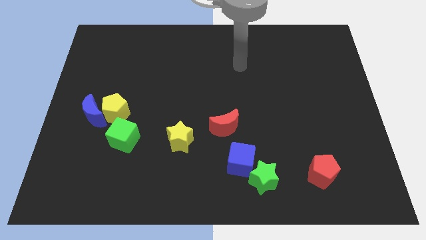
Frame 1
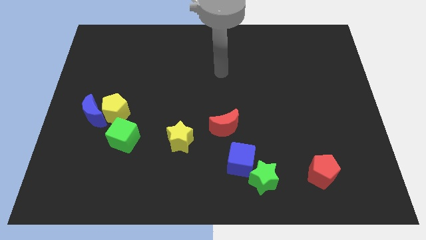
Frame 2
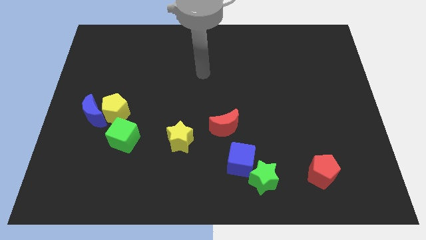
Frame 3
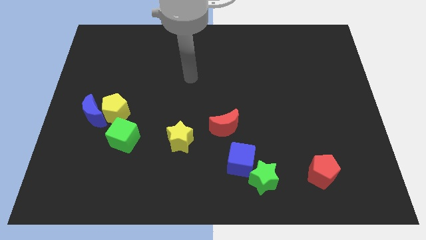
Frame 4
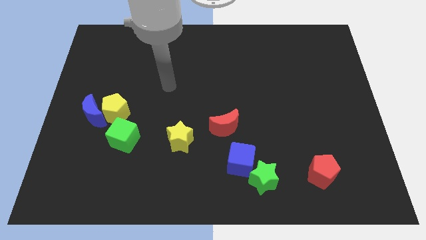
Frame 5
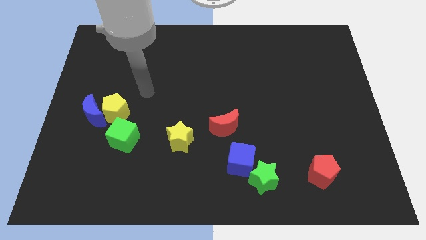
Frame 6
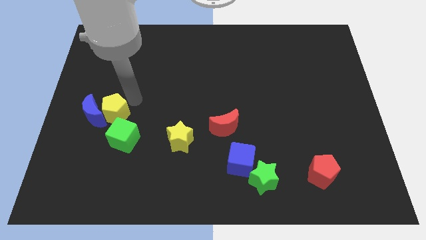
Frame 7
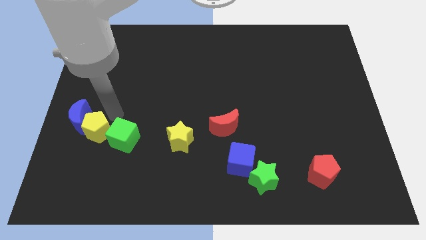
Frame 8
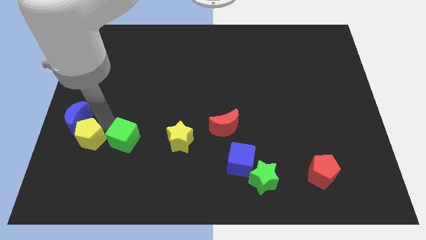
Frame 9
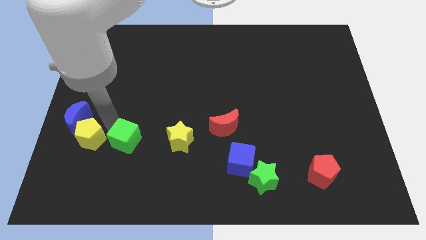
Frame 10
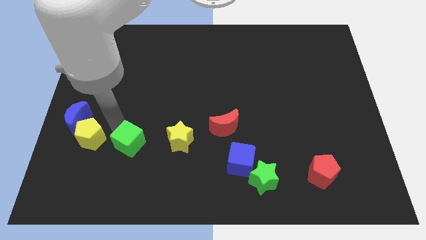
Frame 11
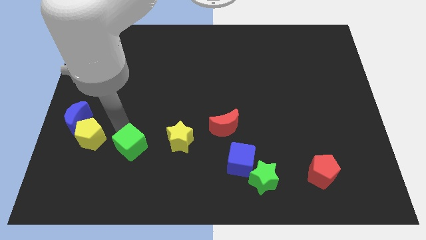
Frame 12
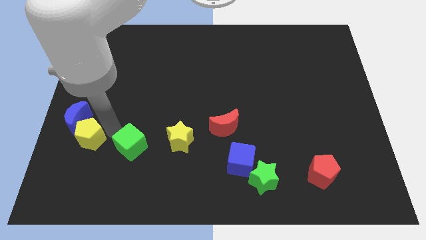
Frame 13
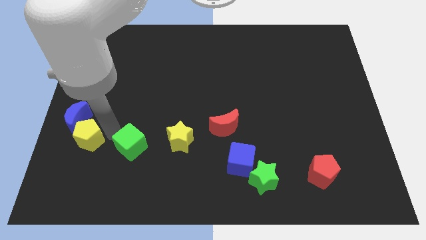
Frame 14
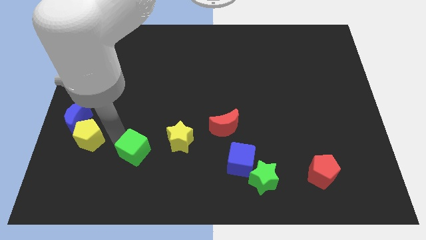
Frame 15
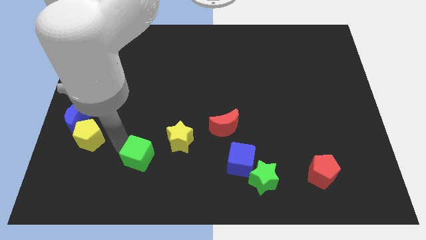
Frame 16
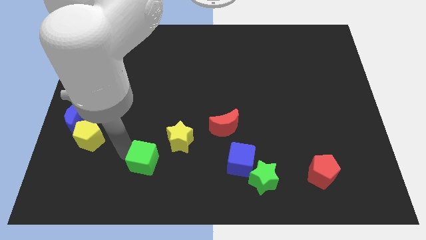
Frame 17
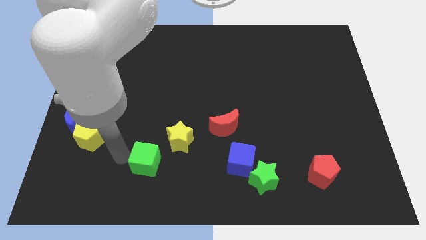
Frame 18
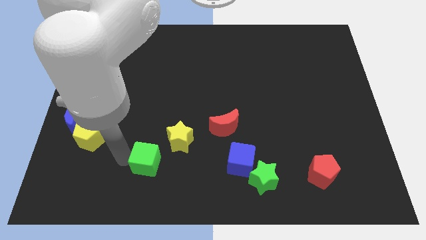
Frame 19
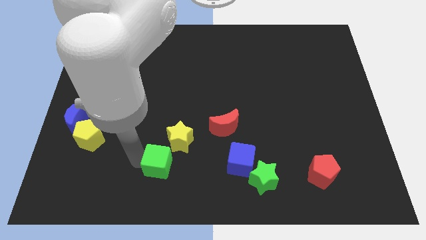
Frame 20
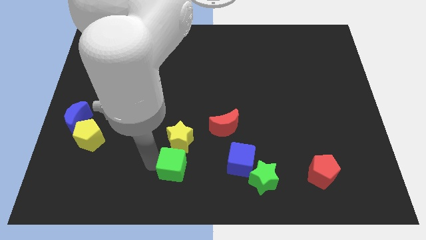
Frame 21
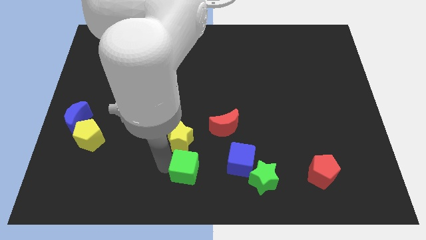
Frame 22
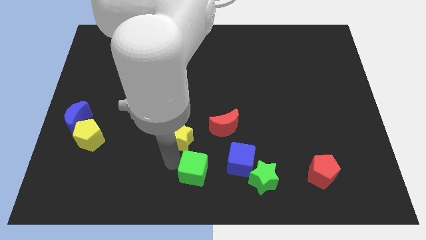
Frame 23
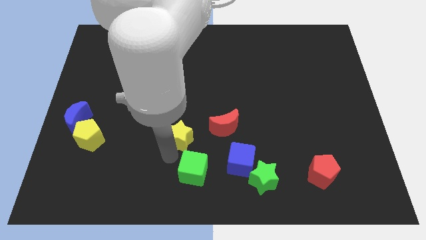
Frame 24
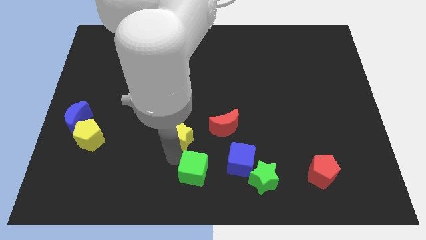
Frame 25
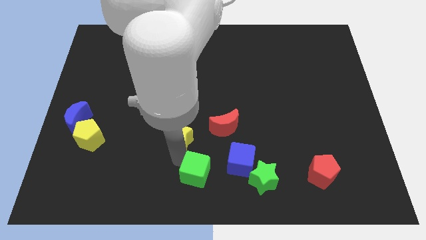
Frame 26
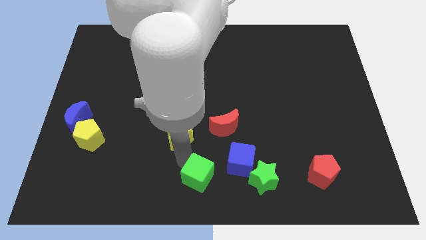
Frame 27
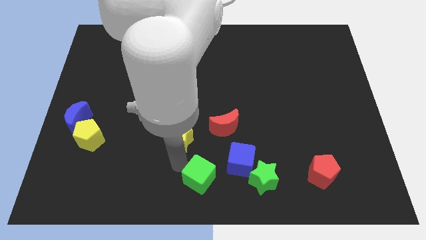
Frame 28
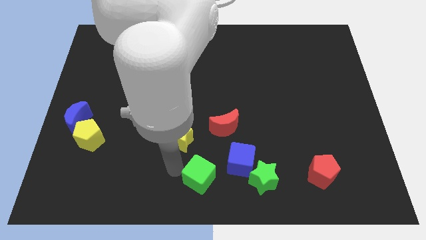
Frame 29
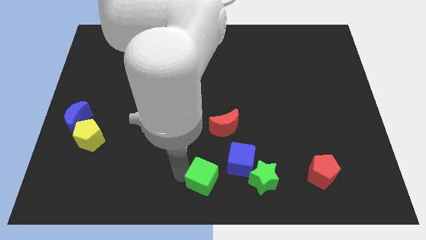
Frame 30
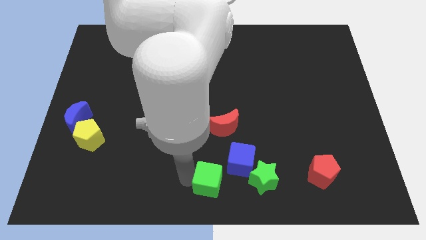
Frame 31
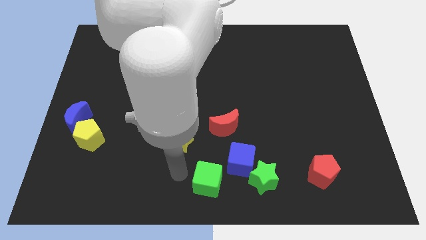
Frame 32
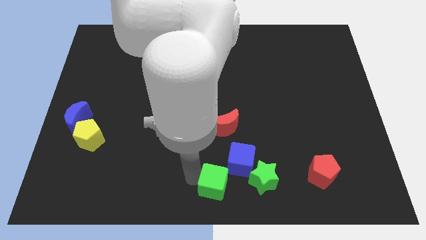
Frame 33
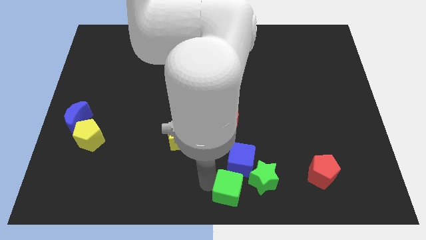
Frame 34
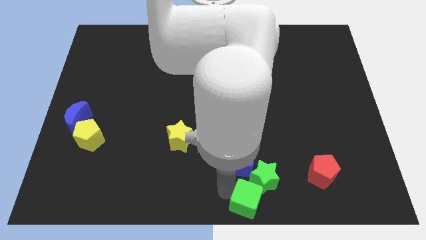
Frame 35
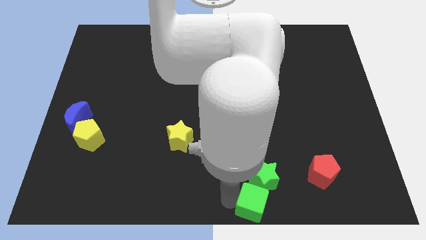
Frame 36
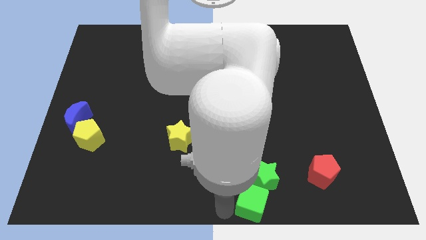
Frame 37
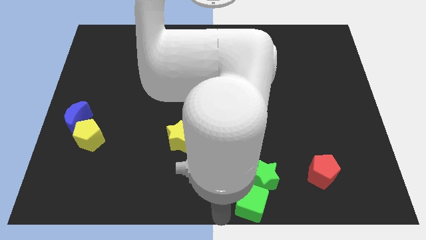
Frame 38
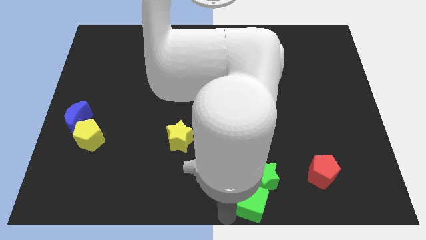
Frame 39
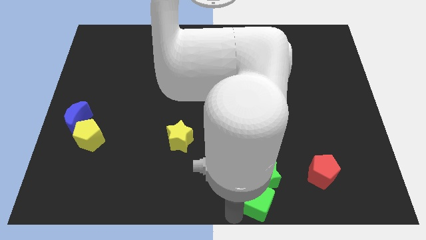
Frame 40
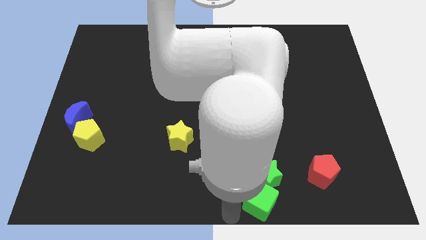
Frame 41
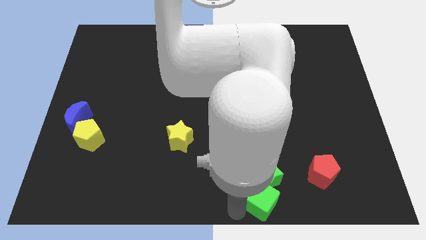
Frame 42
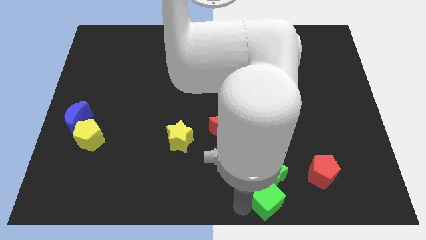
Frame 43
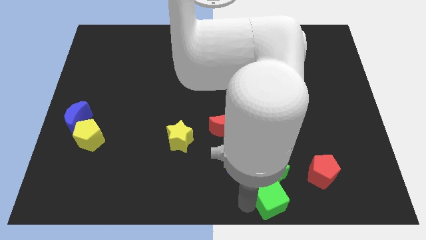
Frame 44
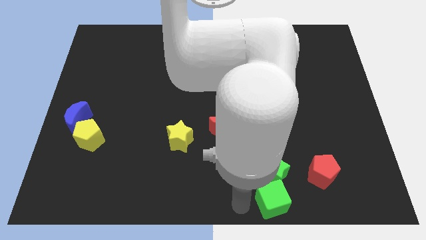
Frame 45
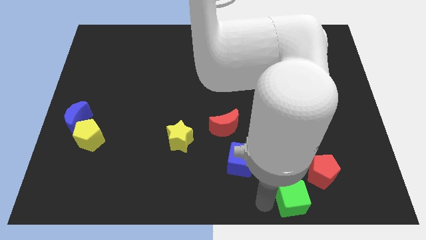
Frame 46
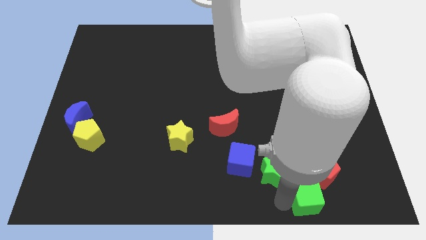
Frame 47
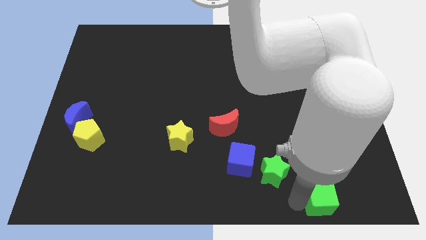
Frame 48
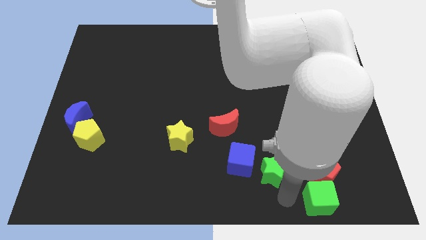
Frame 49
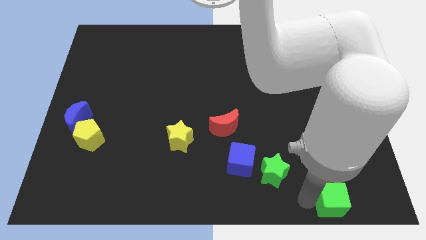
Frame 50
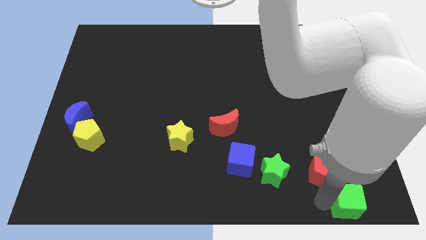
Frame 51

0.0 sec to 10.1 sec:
push the green cube to the bottom right

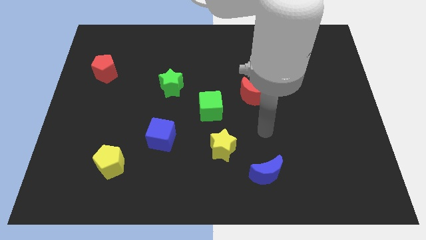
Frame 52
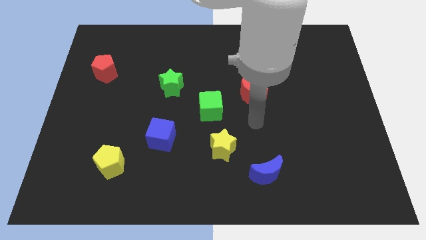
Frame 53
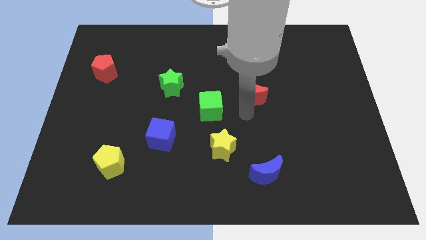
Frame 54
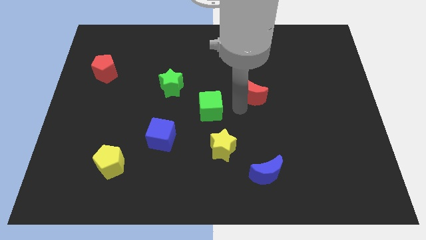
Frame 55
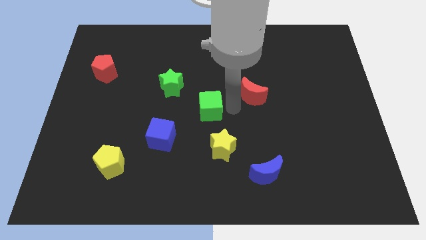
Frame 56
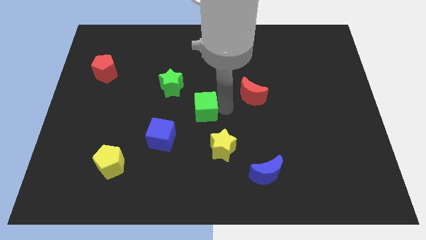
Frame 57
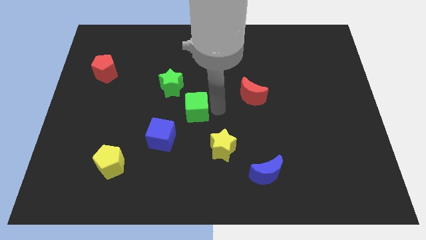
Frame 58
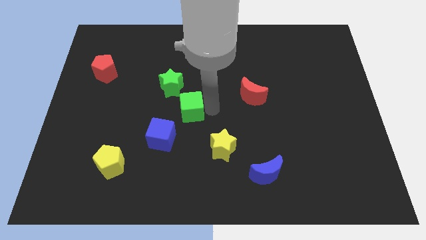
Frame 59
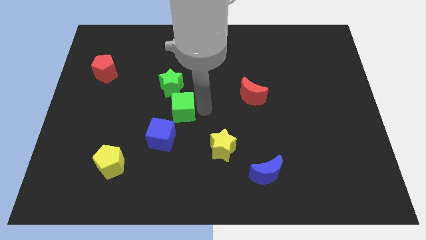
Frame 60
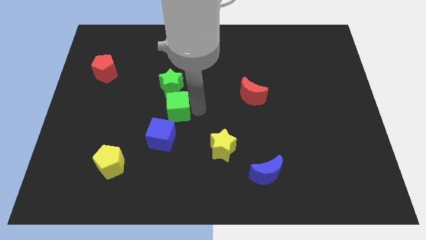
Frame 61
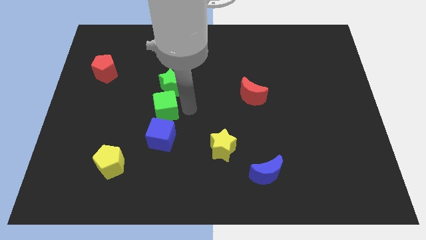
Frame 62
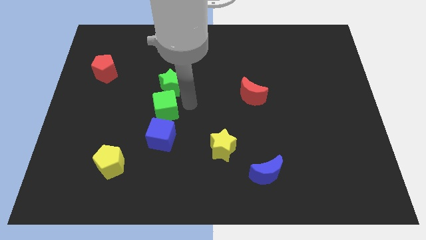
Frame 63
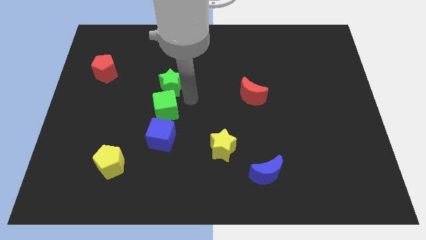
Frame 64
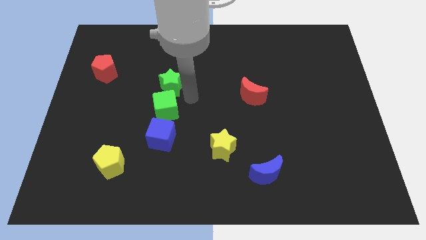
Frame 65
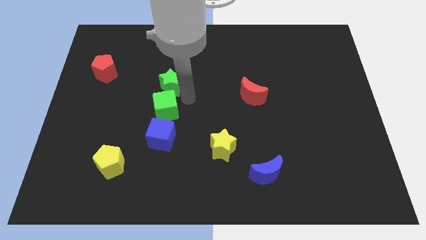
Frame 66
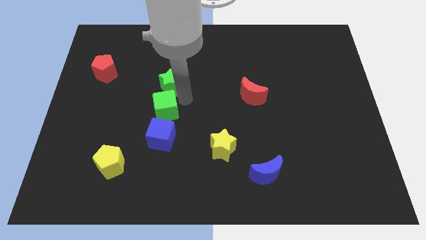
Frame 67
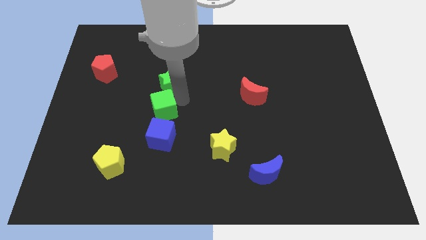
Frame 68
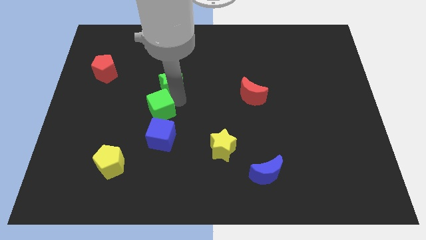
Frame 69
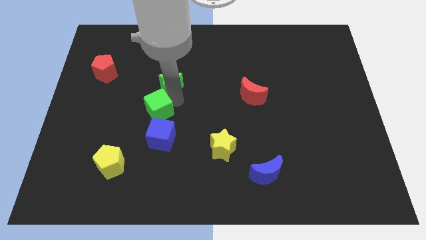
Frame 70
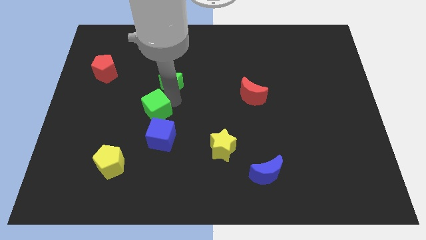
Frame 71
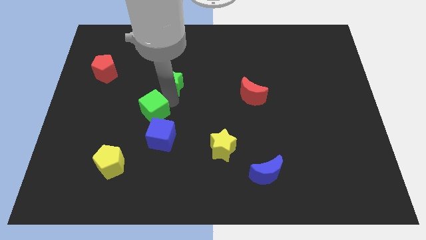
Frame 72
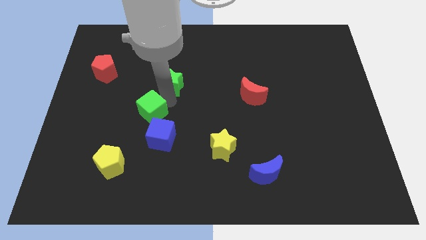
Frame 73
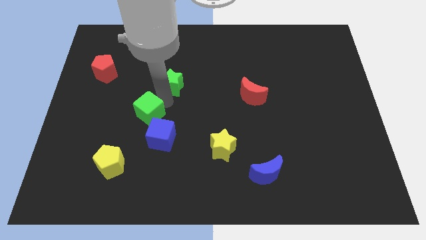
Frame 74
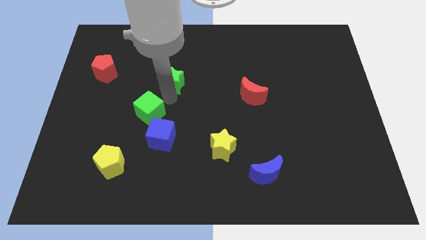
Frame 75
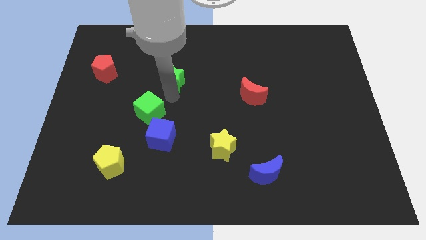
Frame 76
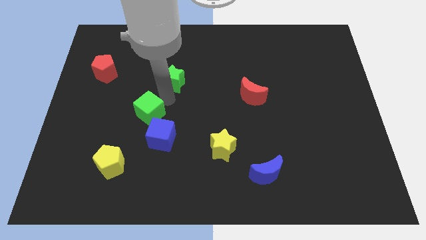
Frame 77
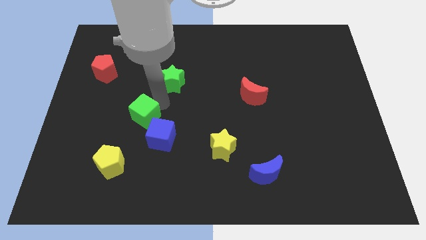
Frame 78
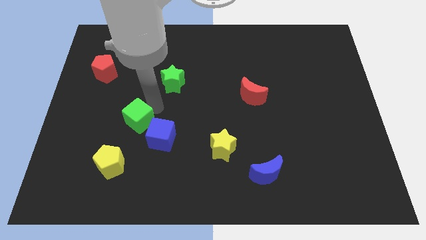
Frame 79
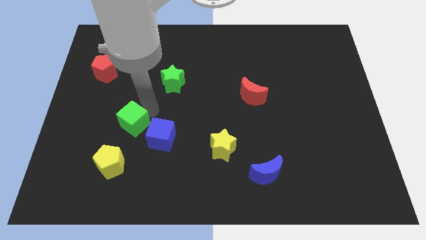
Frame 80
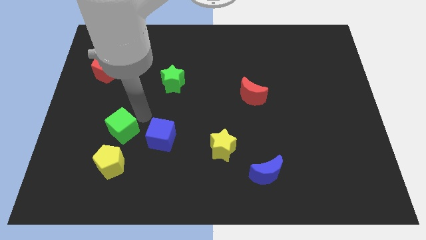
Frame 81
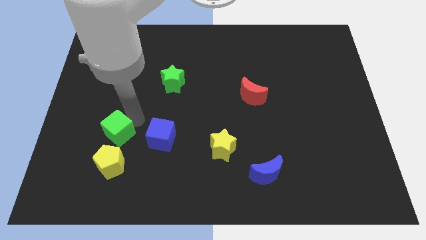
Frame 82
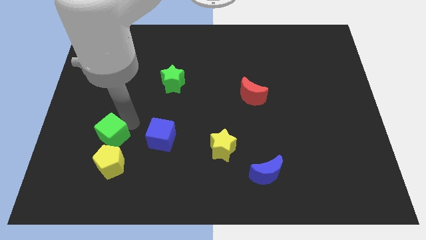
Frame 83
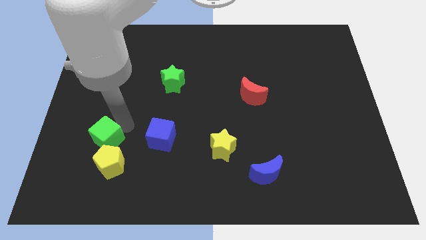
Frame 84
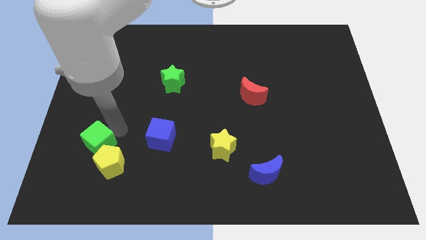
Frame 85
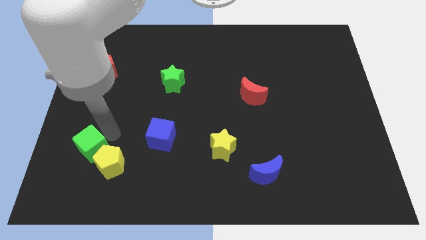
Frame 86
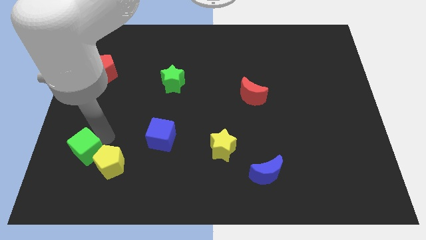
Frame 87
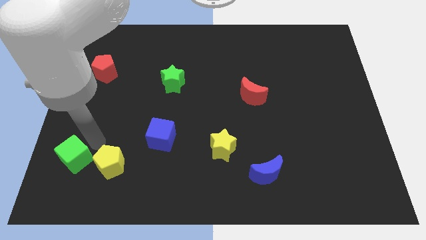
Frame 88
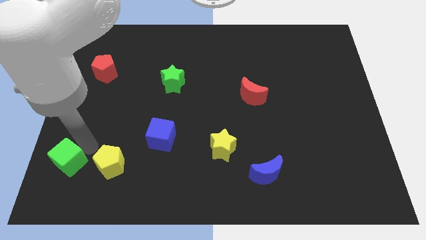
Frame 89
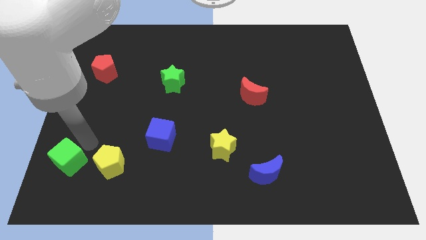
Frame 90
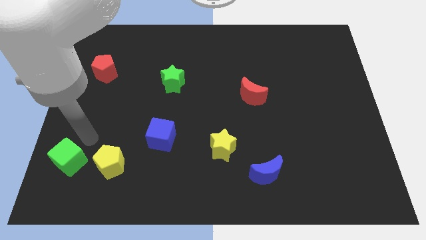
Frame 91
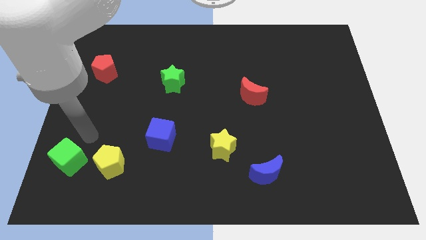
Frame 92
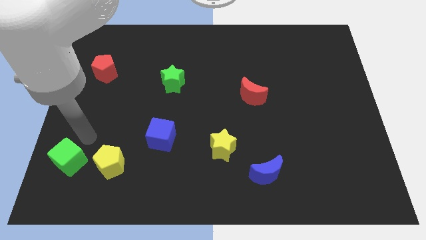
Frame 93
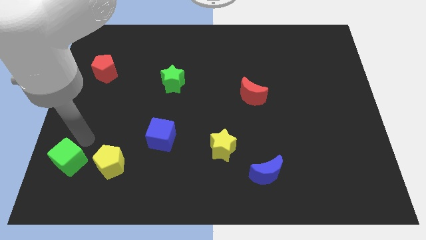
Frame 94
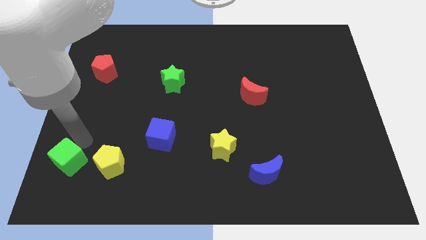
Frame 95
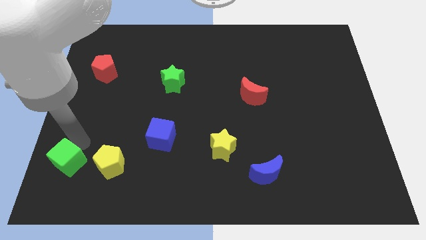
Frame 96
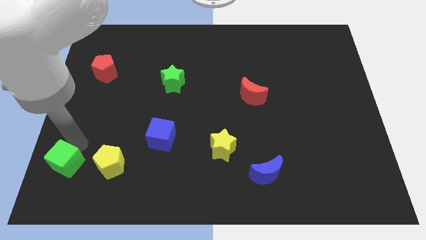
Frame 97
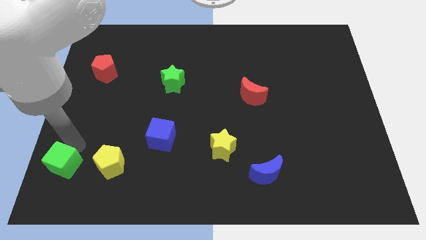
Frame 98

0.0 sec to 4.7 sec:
move the green cube to the bottom left of the board
